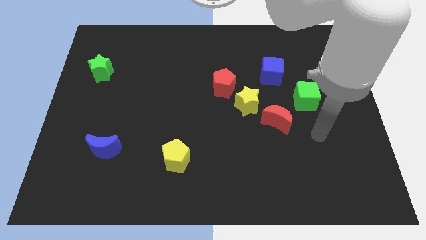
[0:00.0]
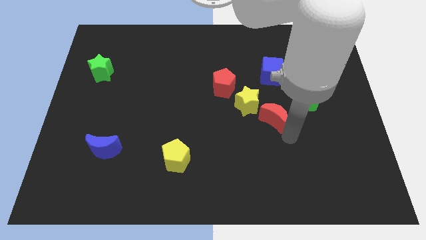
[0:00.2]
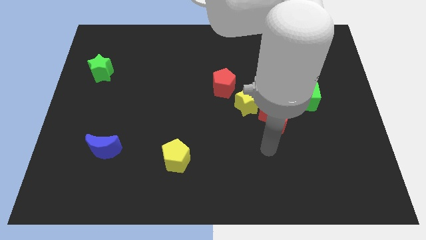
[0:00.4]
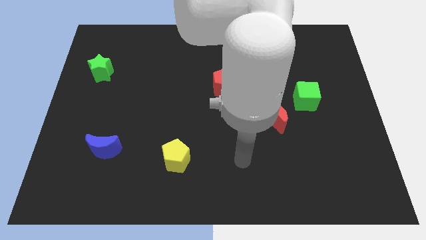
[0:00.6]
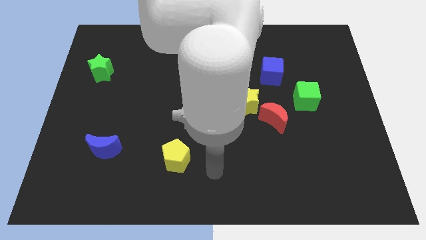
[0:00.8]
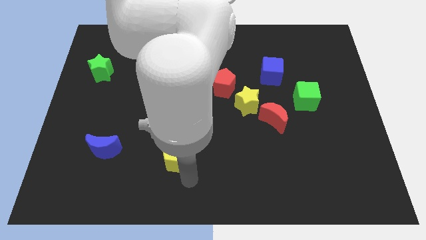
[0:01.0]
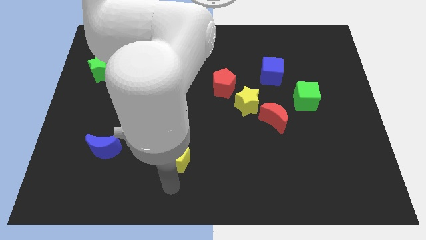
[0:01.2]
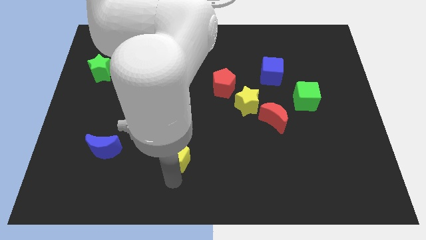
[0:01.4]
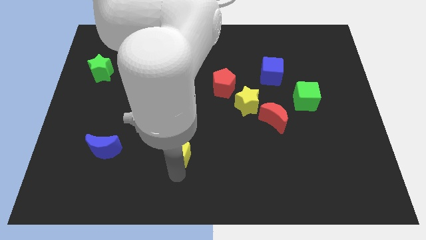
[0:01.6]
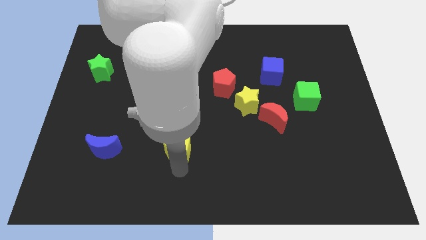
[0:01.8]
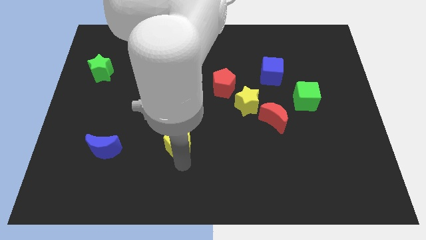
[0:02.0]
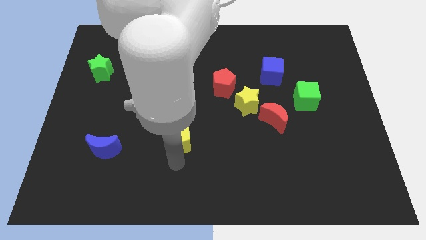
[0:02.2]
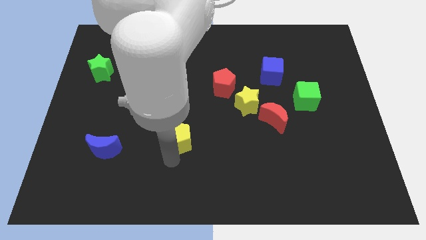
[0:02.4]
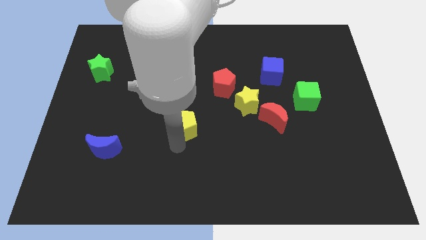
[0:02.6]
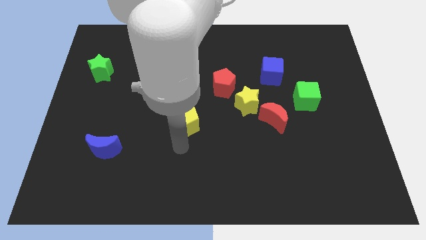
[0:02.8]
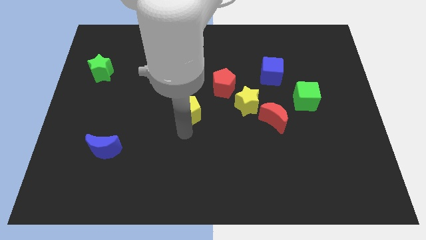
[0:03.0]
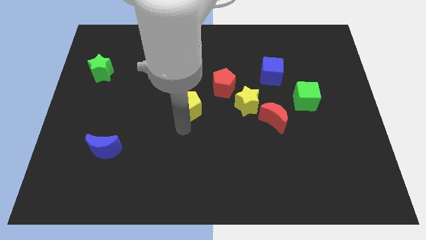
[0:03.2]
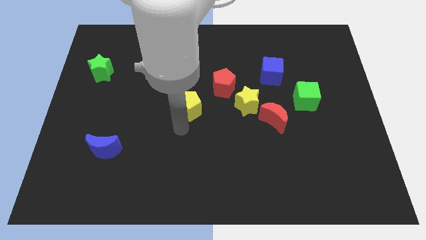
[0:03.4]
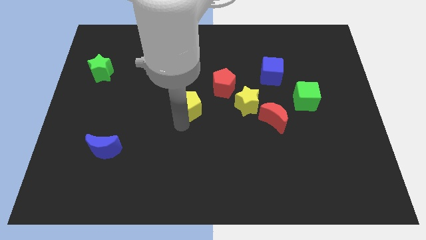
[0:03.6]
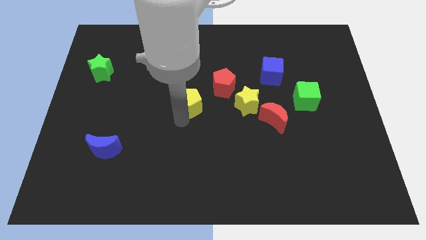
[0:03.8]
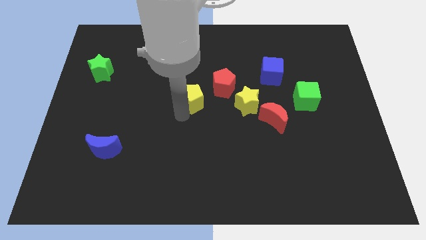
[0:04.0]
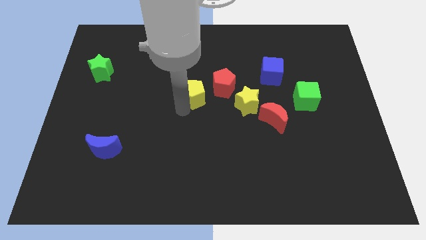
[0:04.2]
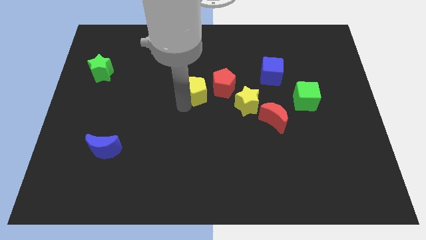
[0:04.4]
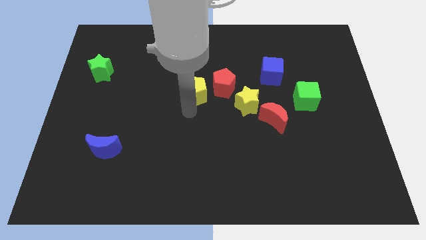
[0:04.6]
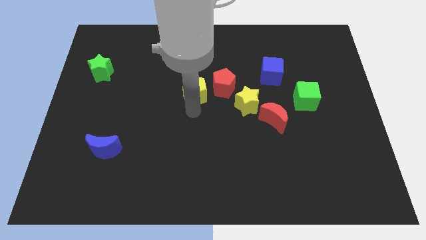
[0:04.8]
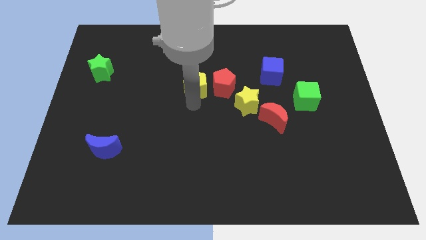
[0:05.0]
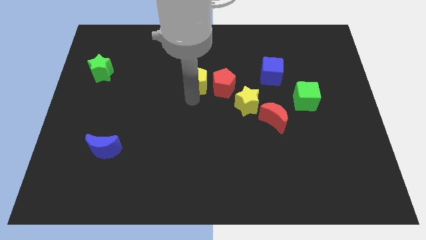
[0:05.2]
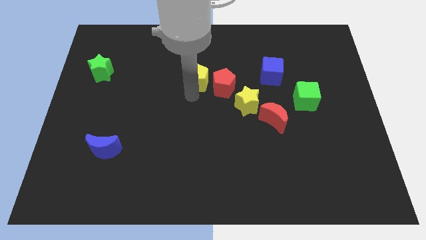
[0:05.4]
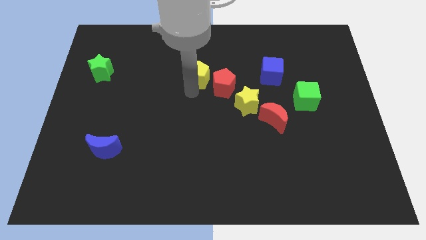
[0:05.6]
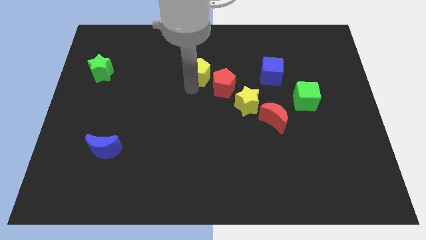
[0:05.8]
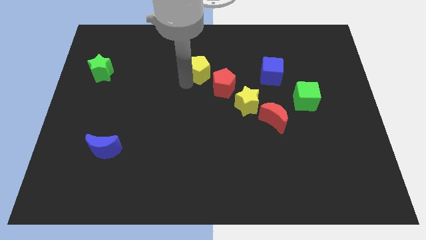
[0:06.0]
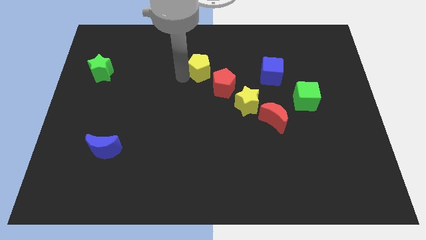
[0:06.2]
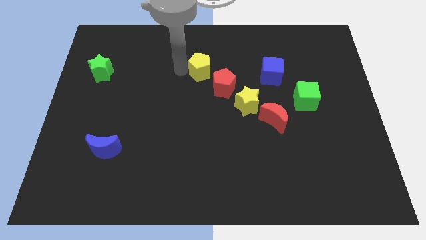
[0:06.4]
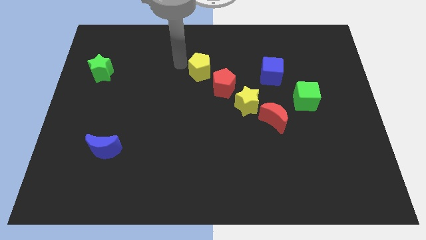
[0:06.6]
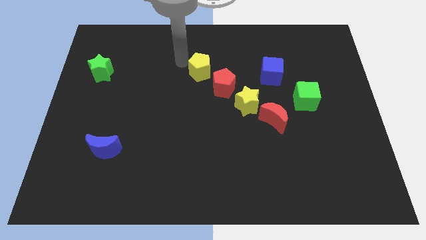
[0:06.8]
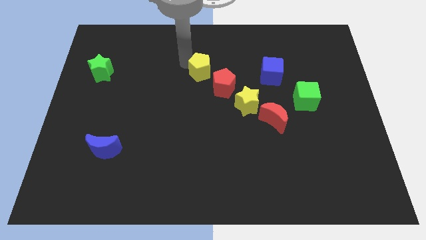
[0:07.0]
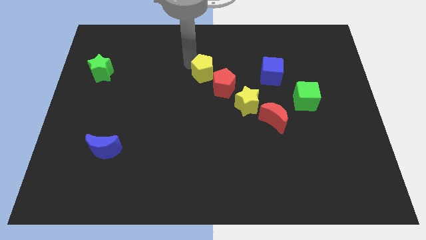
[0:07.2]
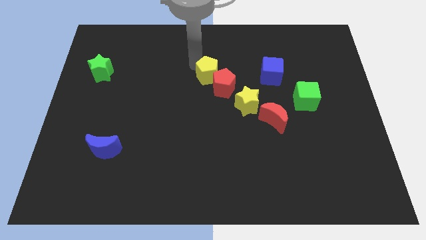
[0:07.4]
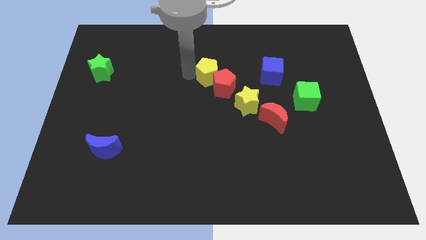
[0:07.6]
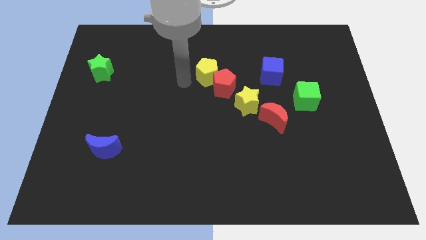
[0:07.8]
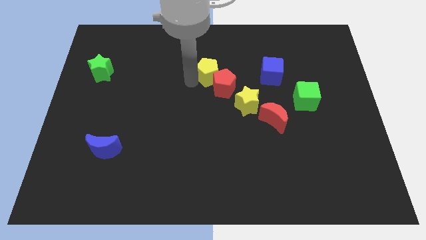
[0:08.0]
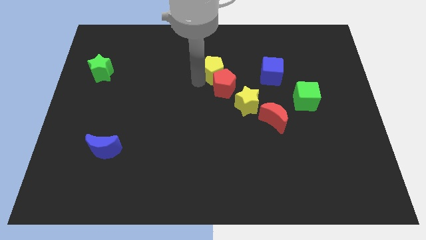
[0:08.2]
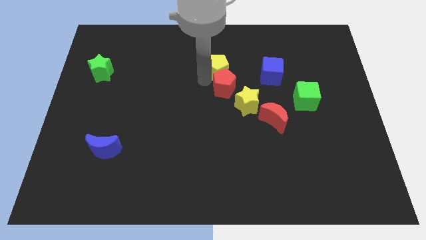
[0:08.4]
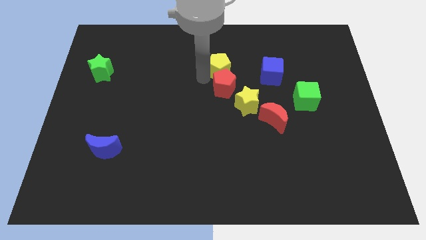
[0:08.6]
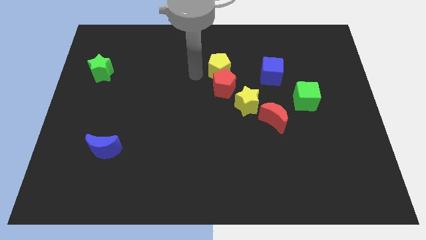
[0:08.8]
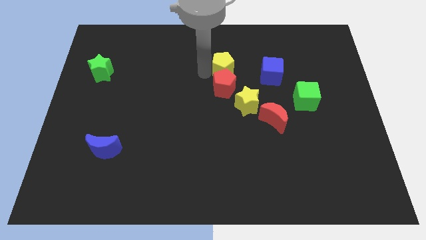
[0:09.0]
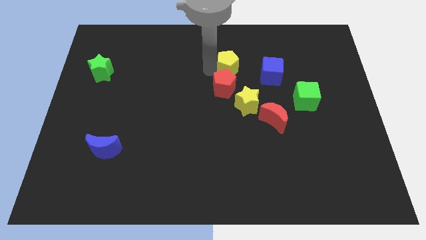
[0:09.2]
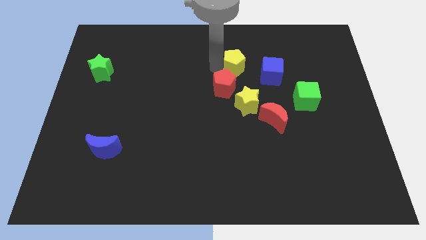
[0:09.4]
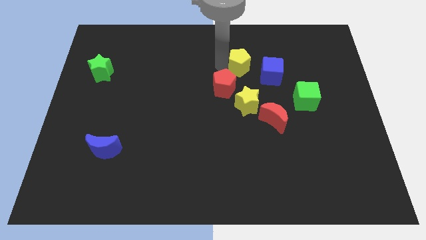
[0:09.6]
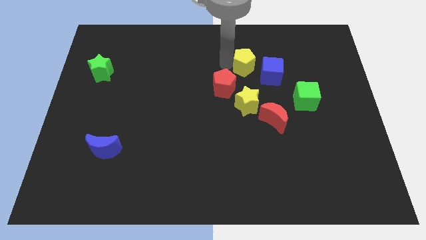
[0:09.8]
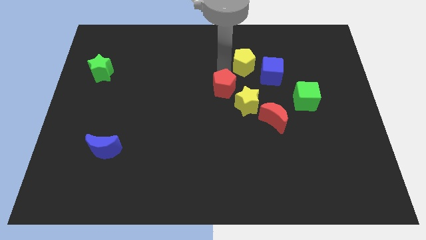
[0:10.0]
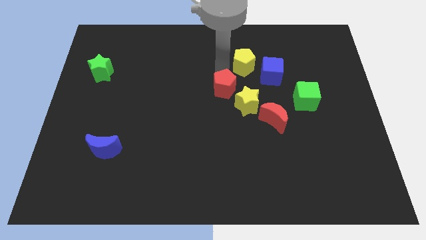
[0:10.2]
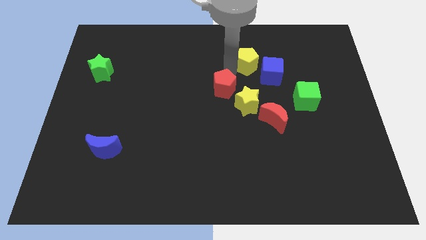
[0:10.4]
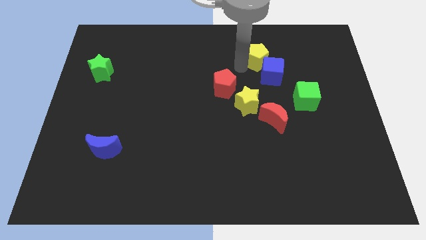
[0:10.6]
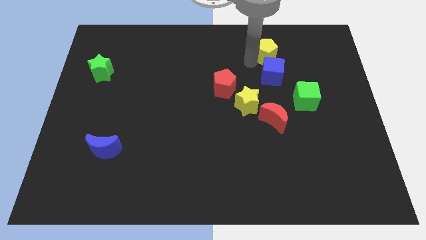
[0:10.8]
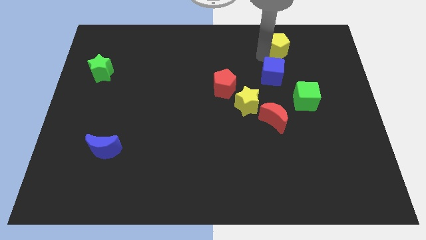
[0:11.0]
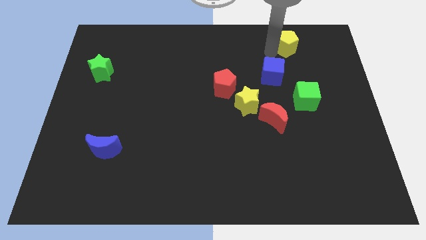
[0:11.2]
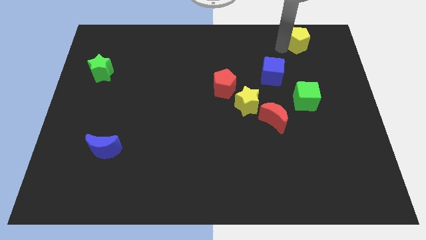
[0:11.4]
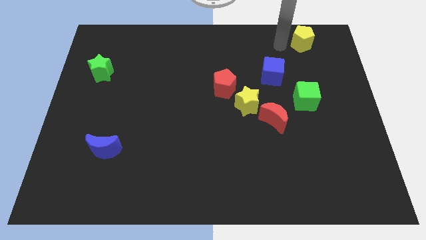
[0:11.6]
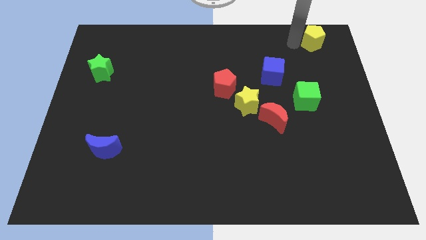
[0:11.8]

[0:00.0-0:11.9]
move the yellow pentagon to the top right
